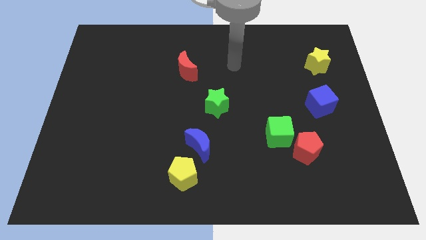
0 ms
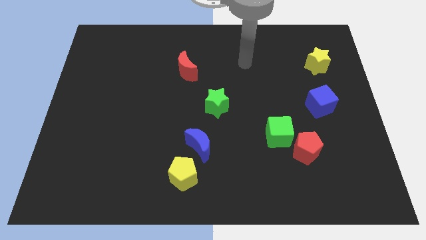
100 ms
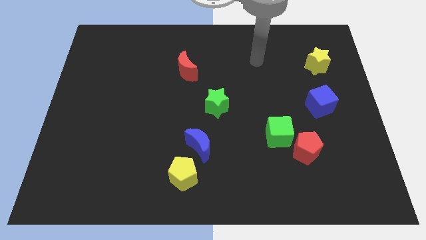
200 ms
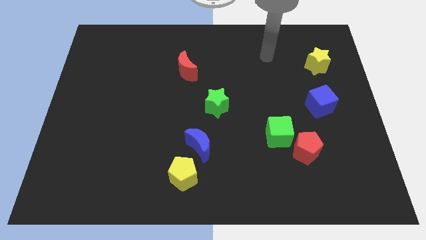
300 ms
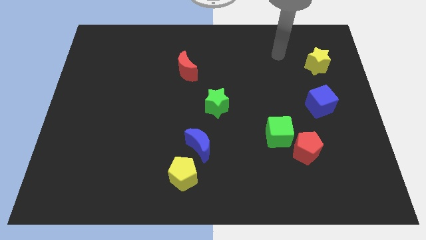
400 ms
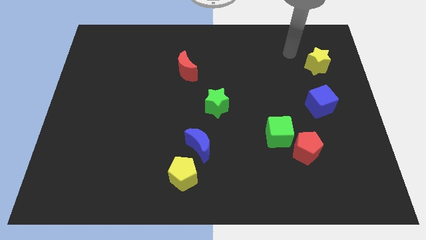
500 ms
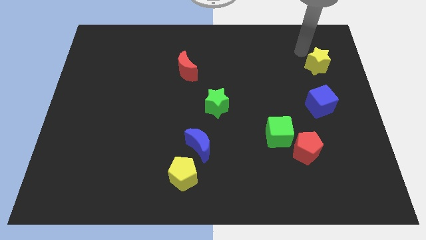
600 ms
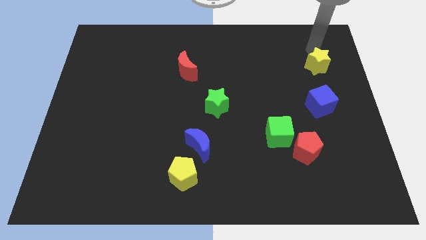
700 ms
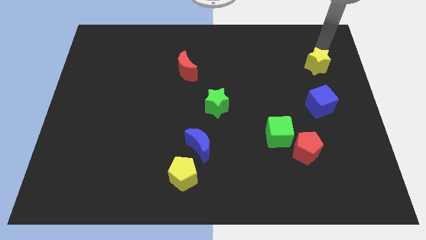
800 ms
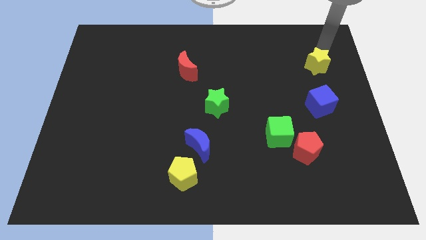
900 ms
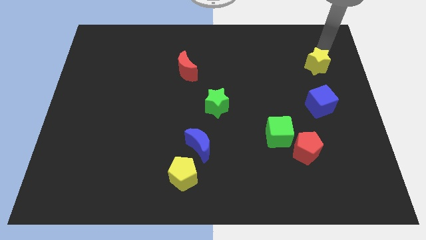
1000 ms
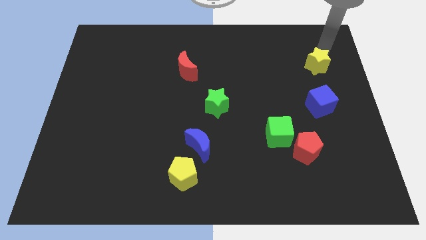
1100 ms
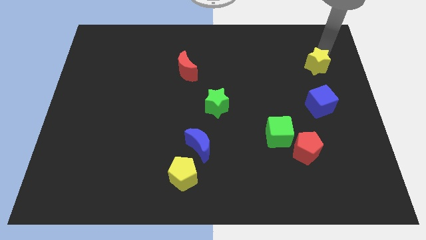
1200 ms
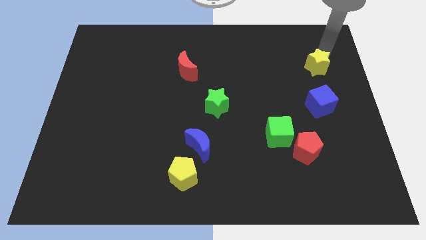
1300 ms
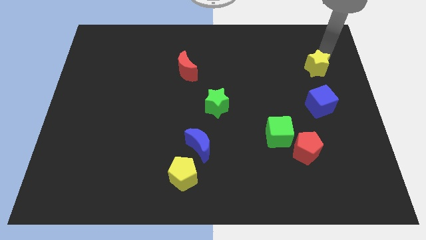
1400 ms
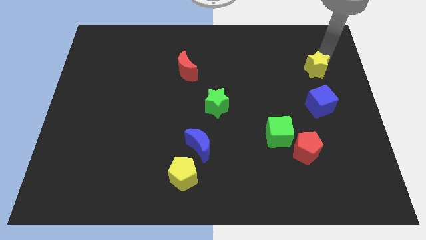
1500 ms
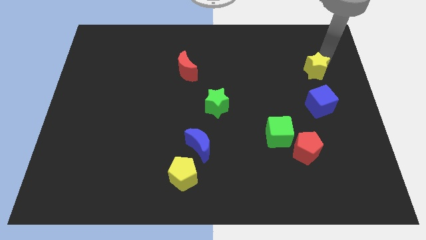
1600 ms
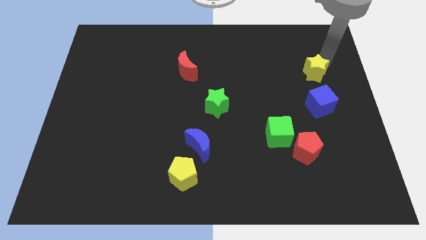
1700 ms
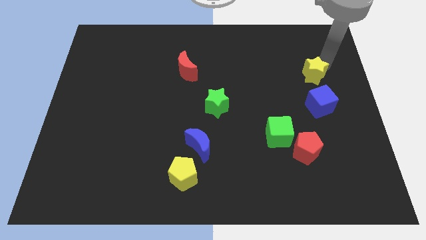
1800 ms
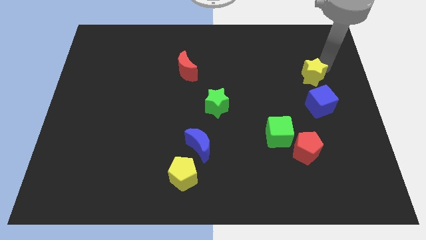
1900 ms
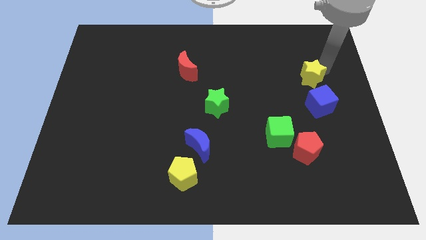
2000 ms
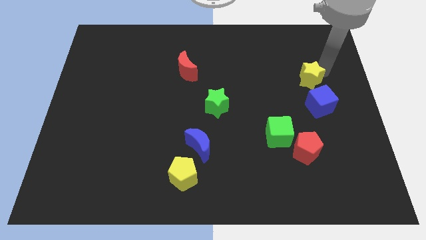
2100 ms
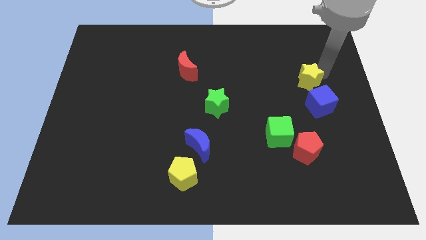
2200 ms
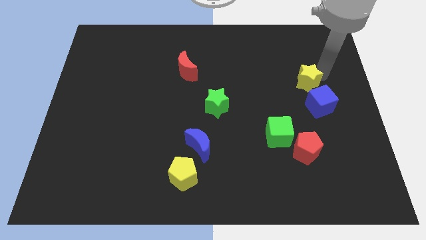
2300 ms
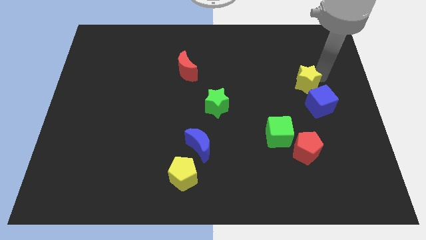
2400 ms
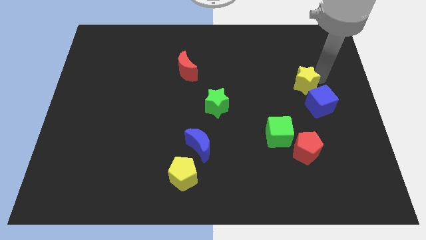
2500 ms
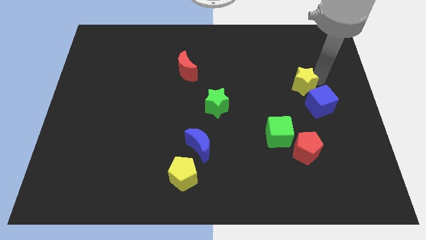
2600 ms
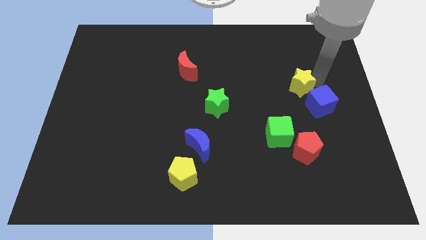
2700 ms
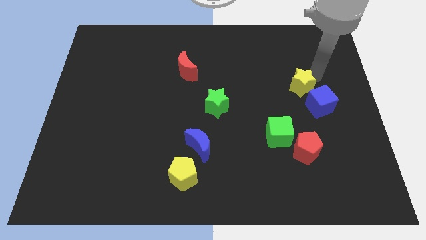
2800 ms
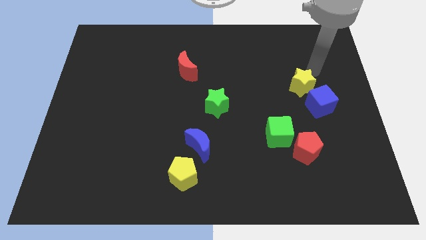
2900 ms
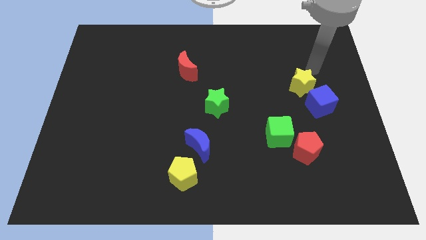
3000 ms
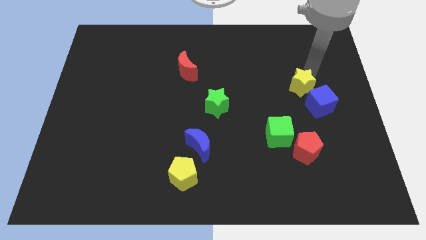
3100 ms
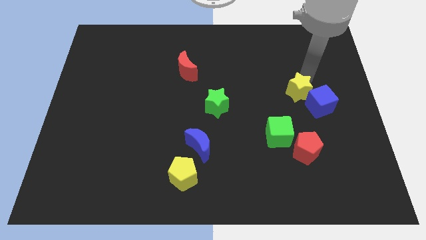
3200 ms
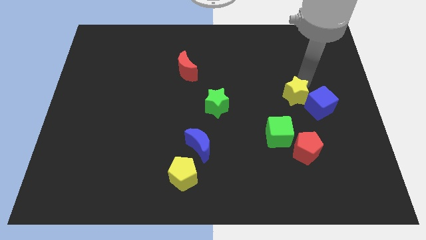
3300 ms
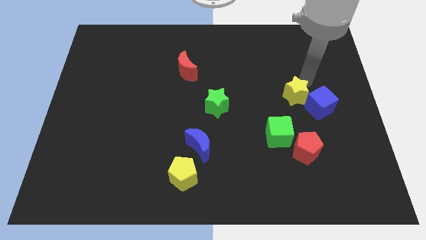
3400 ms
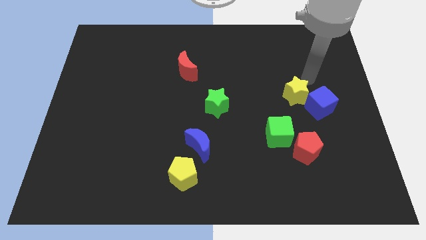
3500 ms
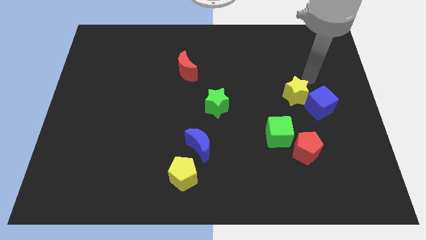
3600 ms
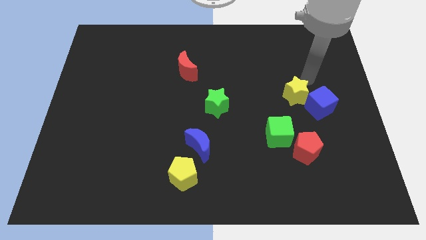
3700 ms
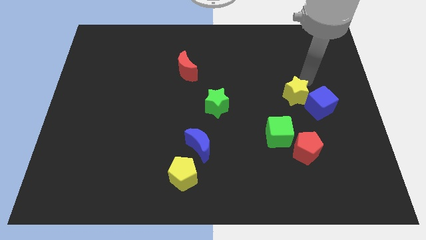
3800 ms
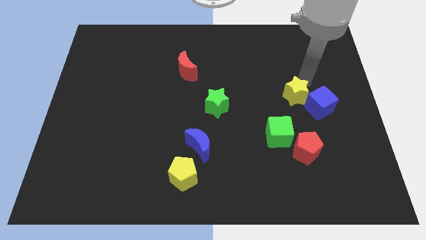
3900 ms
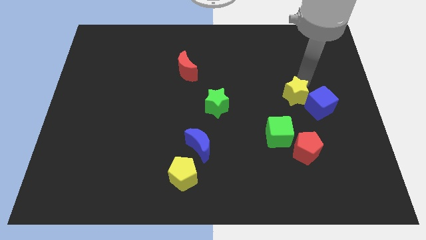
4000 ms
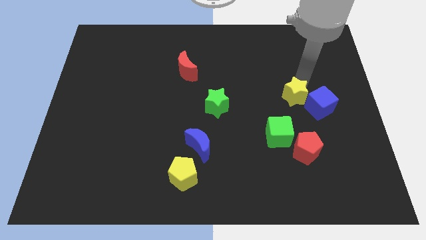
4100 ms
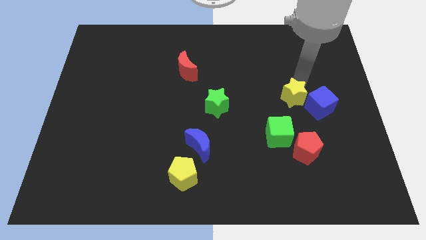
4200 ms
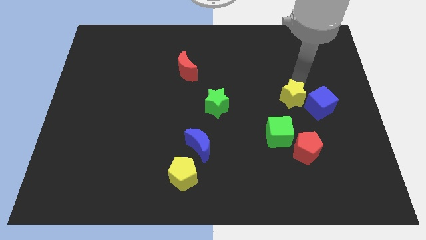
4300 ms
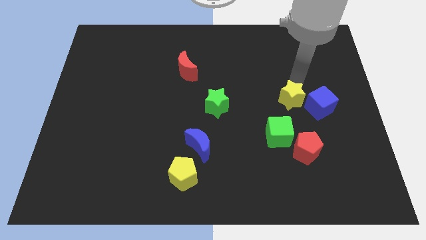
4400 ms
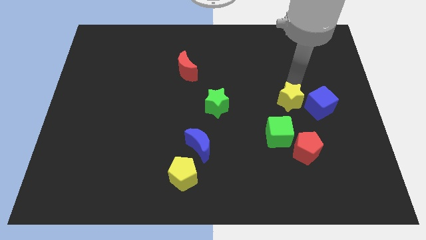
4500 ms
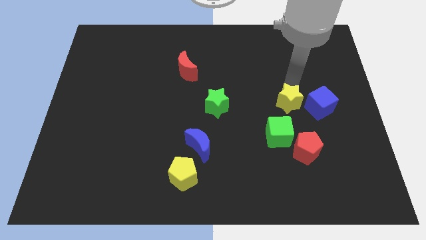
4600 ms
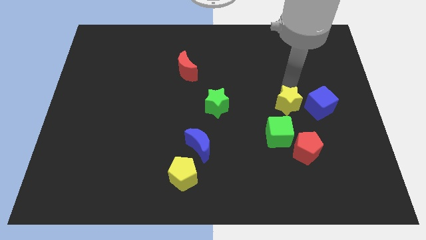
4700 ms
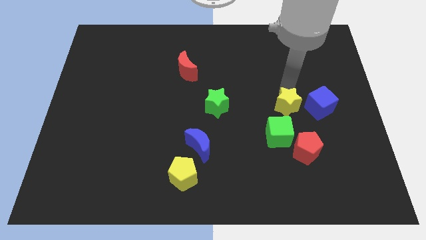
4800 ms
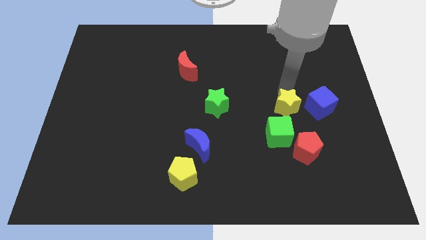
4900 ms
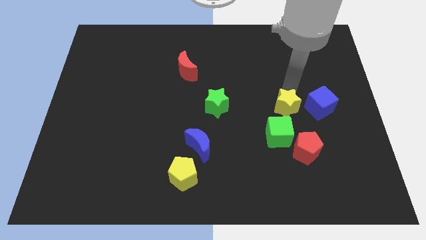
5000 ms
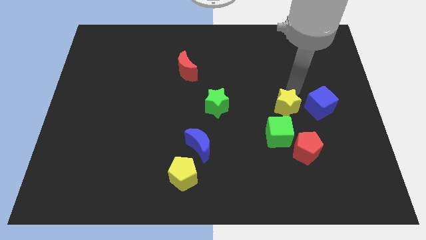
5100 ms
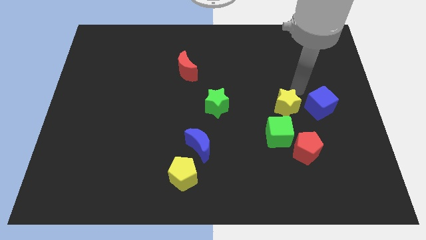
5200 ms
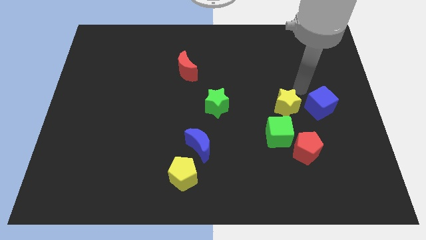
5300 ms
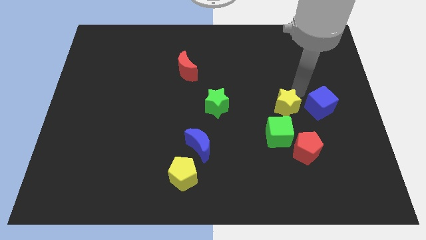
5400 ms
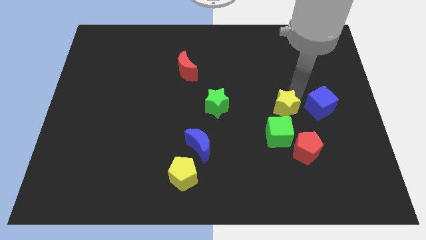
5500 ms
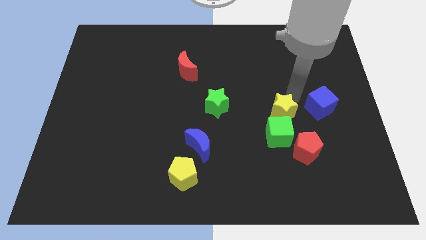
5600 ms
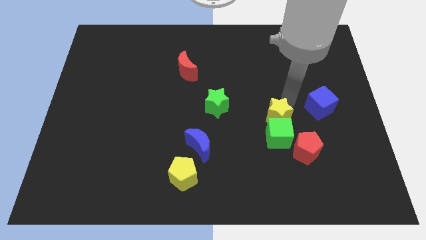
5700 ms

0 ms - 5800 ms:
move the yellow star to the green cube
